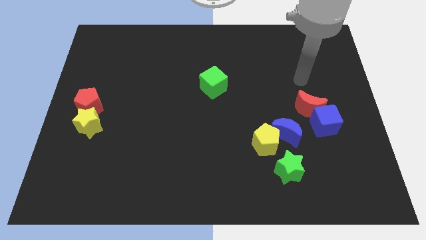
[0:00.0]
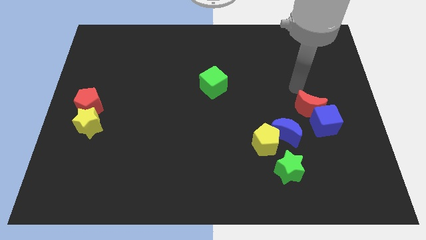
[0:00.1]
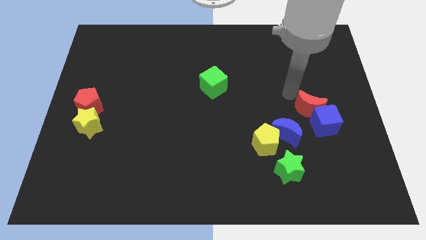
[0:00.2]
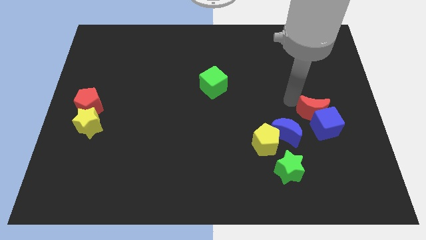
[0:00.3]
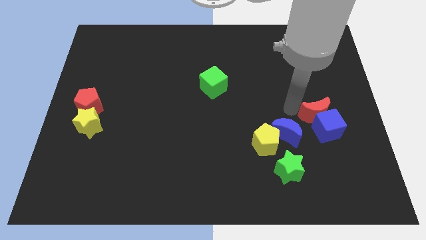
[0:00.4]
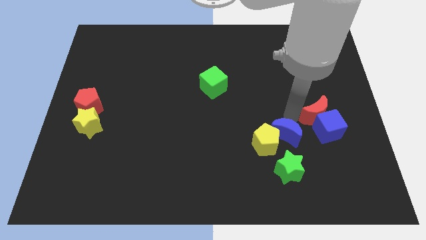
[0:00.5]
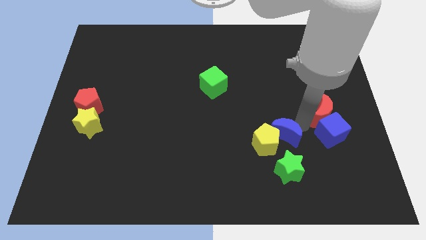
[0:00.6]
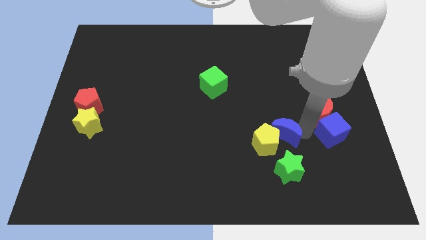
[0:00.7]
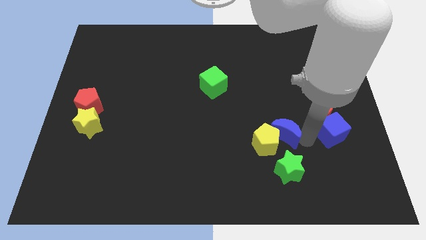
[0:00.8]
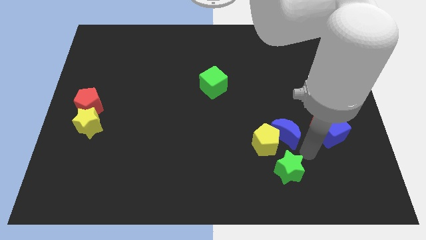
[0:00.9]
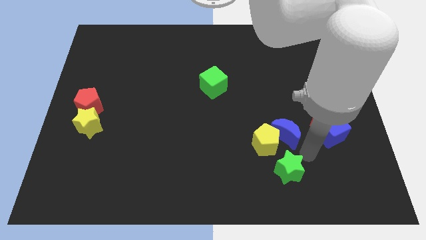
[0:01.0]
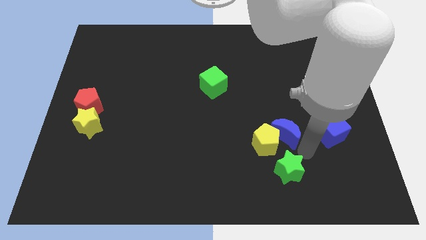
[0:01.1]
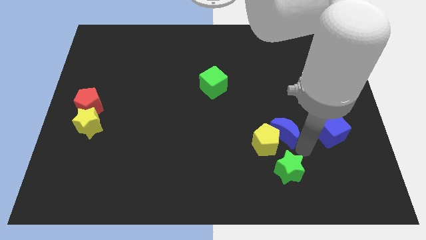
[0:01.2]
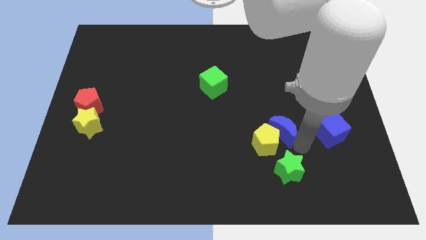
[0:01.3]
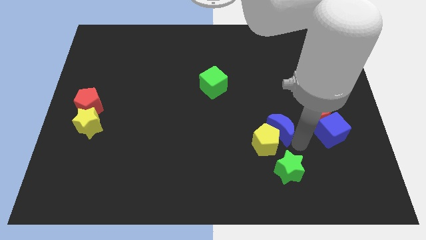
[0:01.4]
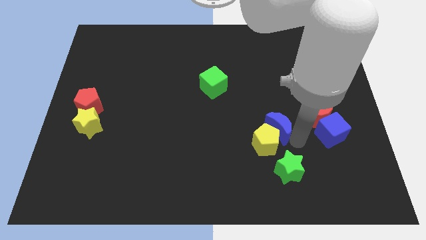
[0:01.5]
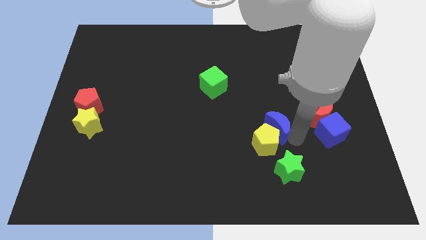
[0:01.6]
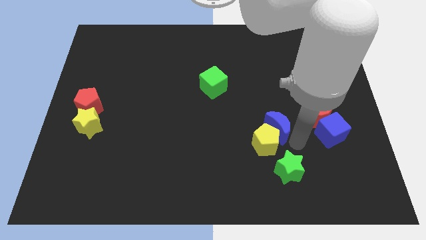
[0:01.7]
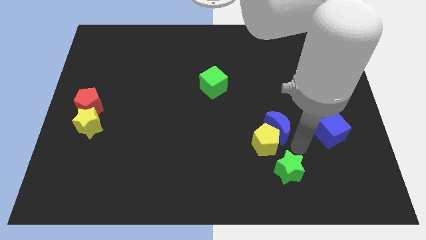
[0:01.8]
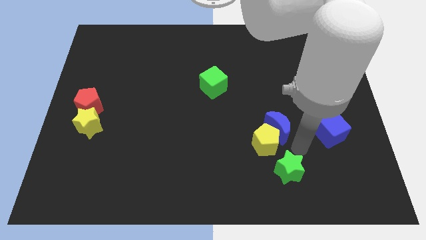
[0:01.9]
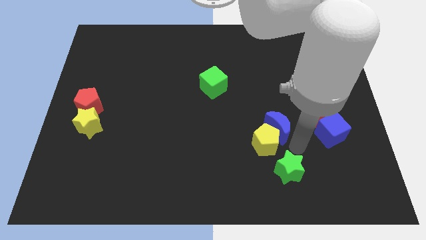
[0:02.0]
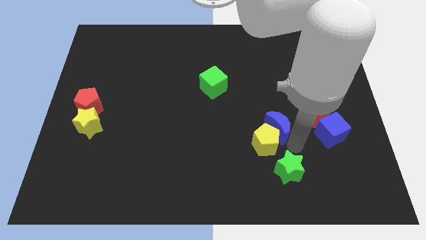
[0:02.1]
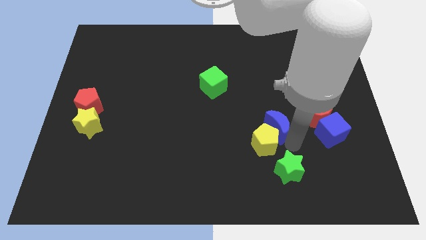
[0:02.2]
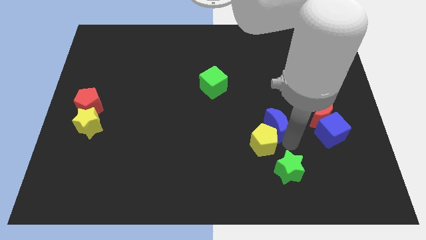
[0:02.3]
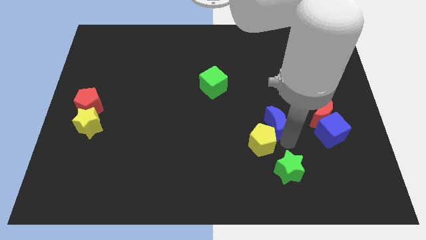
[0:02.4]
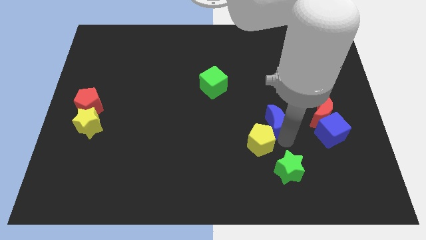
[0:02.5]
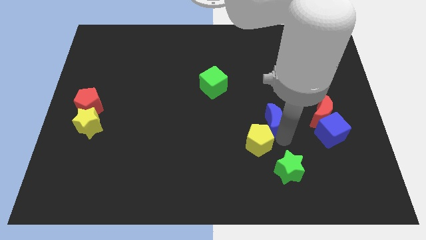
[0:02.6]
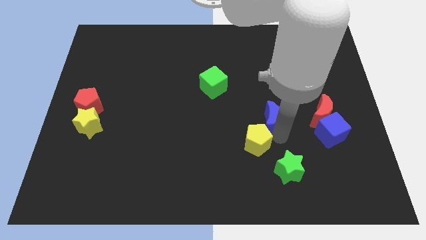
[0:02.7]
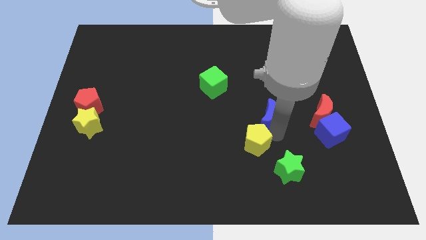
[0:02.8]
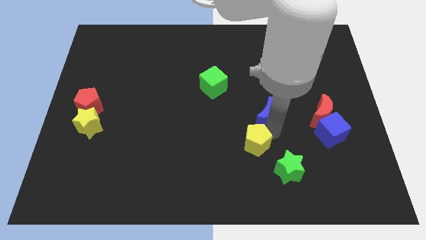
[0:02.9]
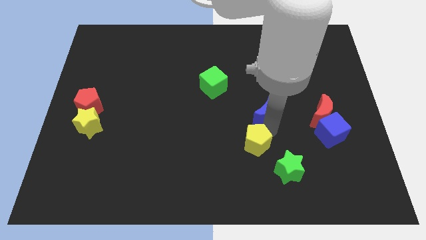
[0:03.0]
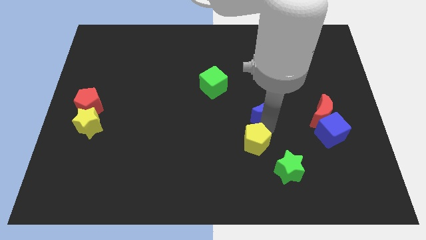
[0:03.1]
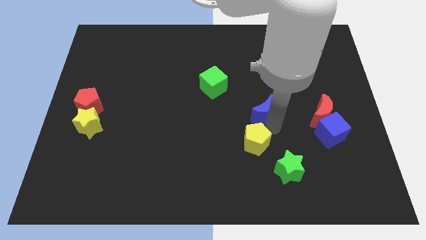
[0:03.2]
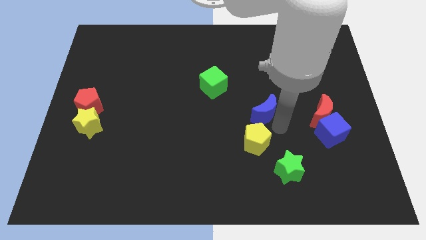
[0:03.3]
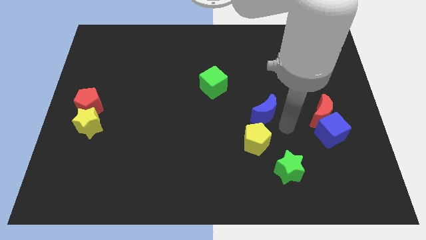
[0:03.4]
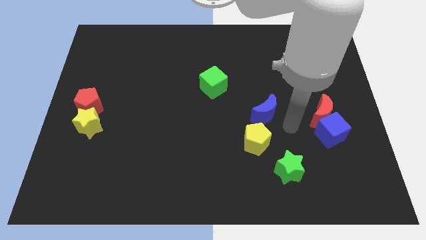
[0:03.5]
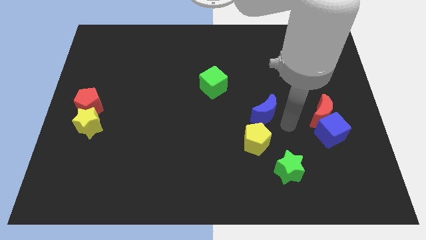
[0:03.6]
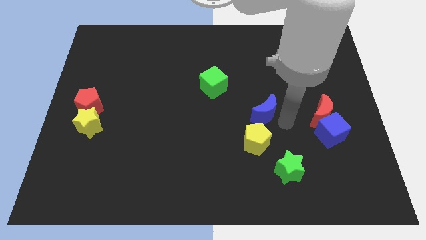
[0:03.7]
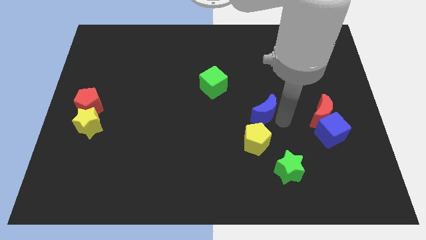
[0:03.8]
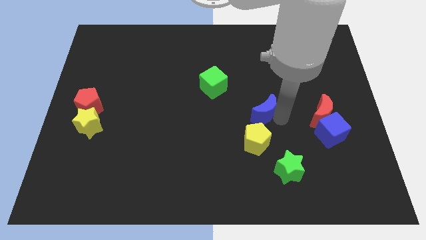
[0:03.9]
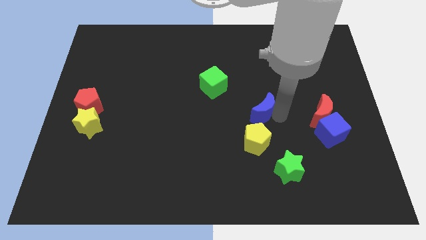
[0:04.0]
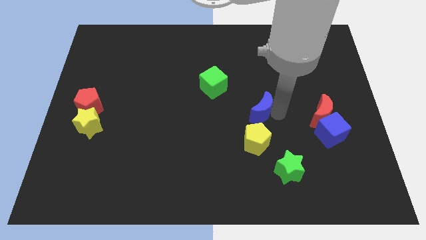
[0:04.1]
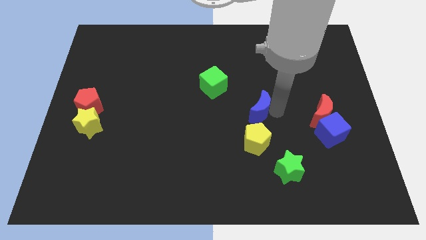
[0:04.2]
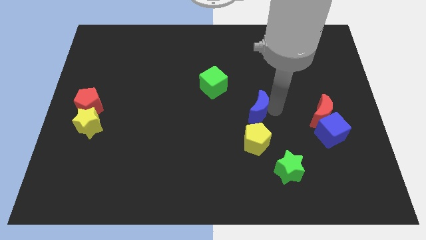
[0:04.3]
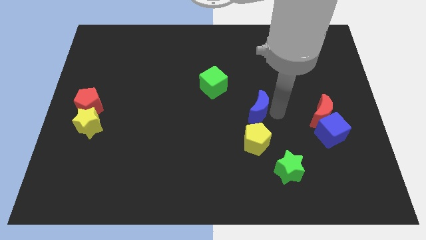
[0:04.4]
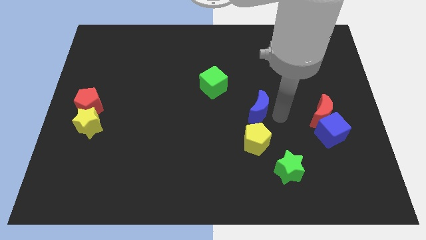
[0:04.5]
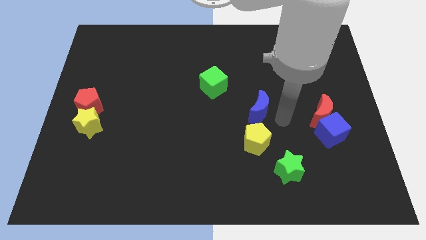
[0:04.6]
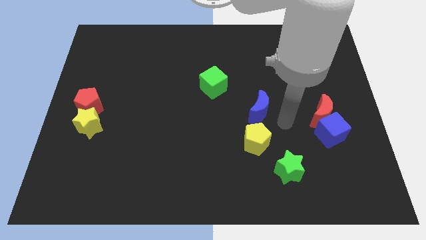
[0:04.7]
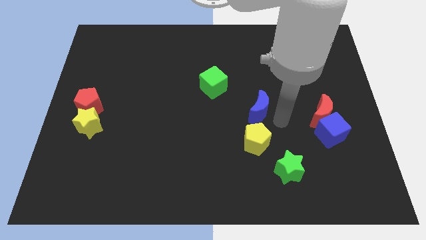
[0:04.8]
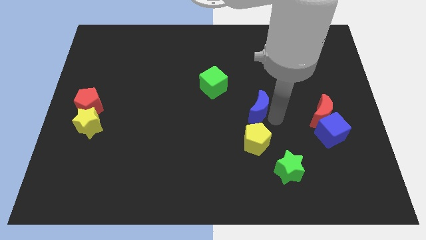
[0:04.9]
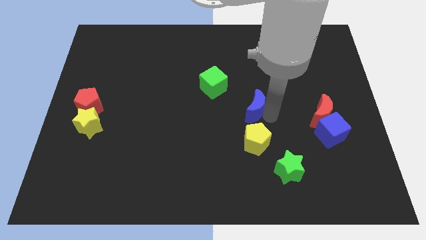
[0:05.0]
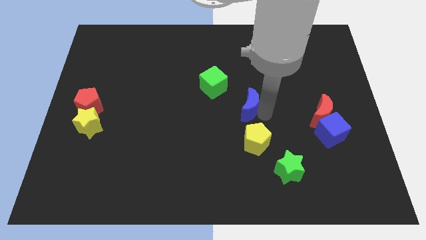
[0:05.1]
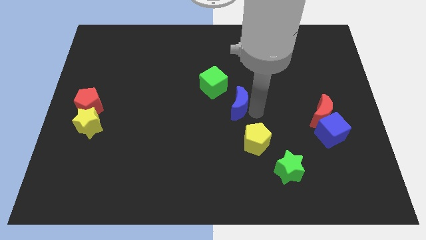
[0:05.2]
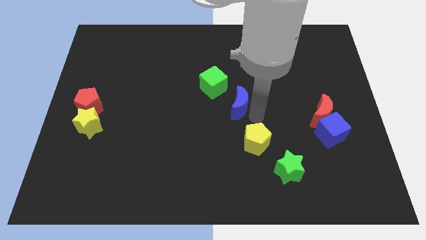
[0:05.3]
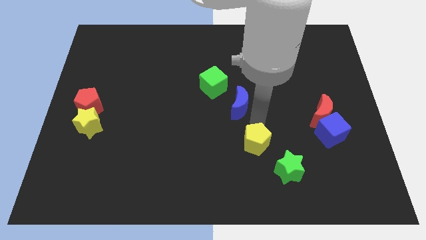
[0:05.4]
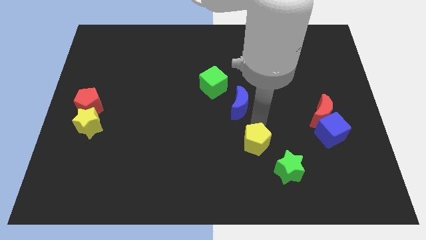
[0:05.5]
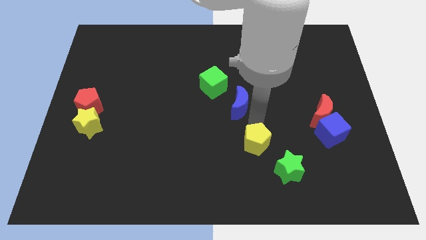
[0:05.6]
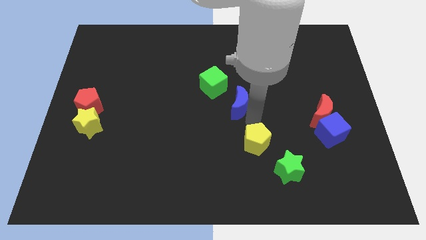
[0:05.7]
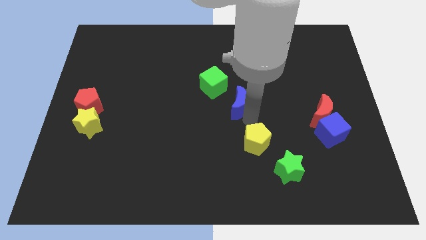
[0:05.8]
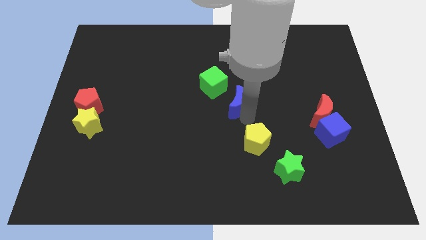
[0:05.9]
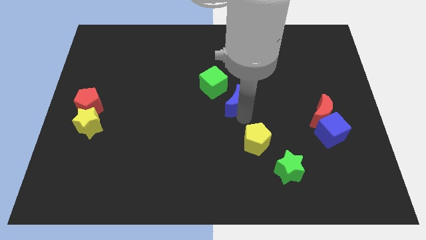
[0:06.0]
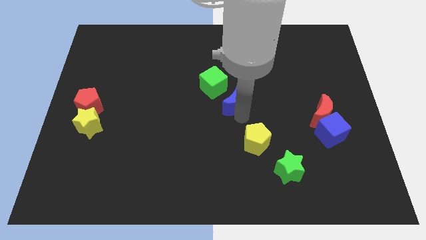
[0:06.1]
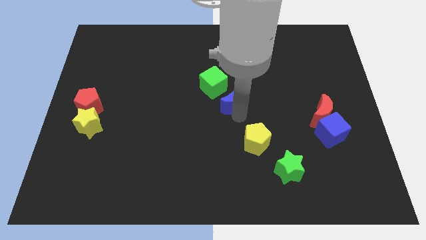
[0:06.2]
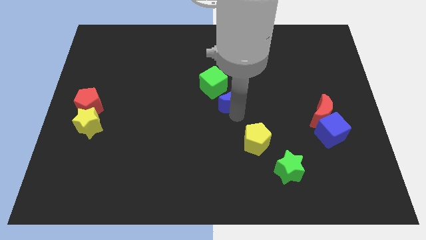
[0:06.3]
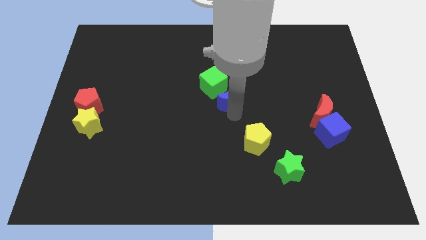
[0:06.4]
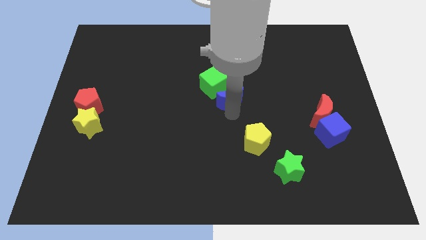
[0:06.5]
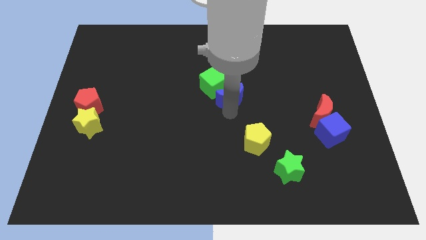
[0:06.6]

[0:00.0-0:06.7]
put the blue moon to the green cube
